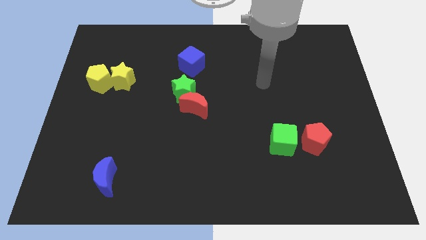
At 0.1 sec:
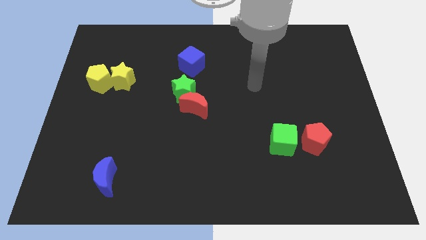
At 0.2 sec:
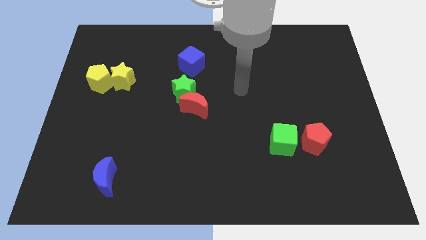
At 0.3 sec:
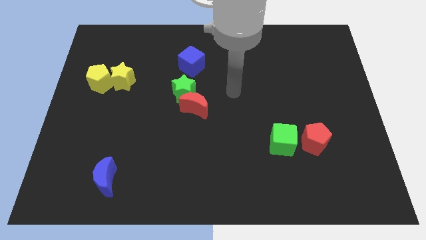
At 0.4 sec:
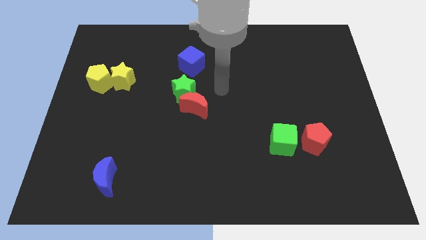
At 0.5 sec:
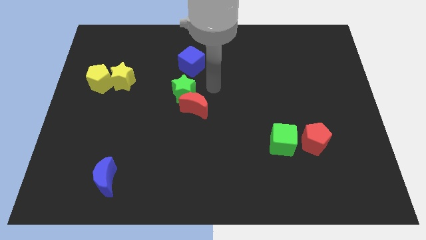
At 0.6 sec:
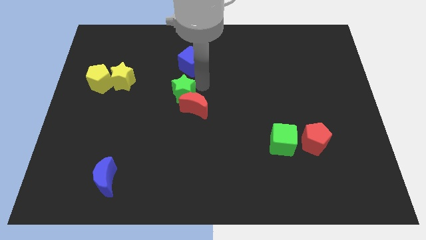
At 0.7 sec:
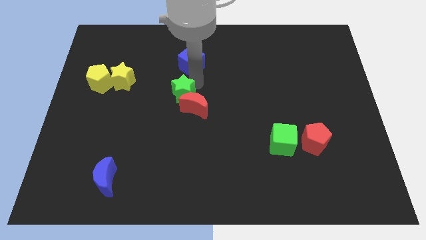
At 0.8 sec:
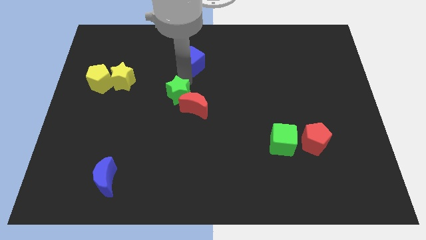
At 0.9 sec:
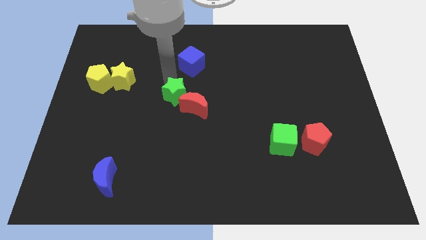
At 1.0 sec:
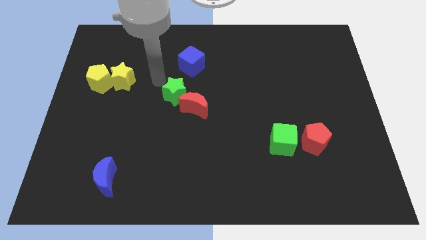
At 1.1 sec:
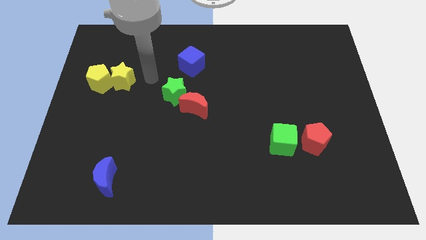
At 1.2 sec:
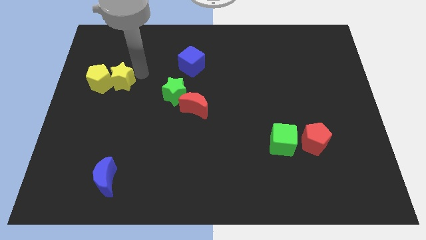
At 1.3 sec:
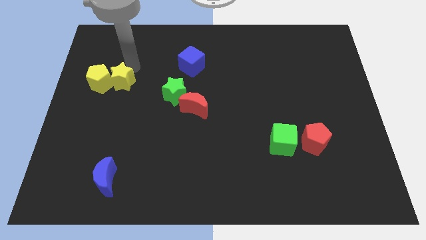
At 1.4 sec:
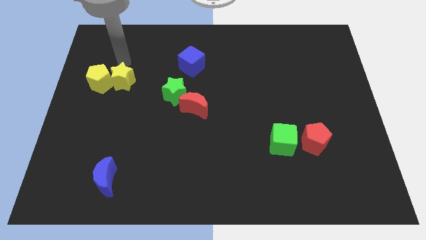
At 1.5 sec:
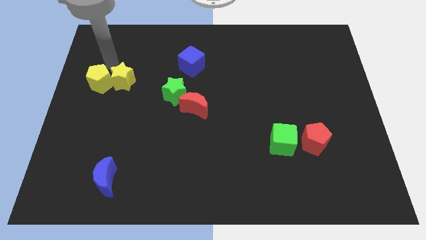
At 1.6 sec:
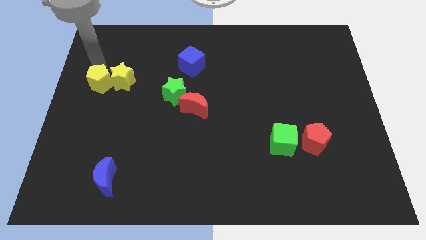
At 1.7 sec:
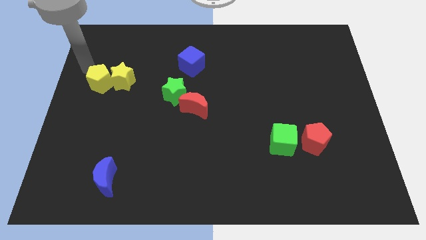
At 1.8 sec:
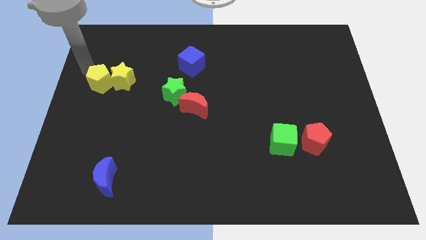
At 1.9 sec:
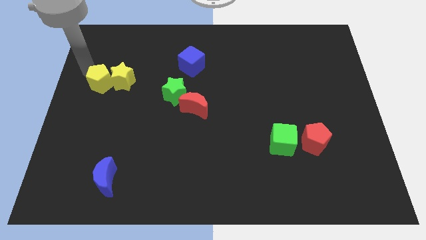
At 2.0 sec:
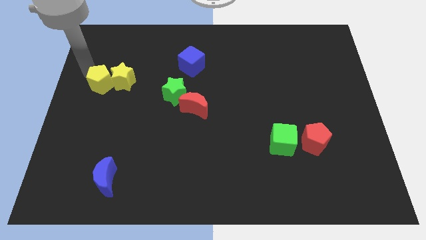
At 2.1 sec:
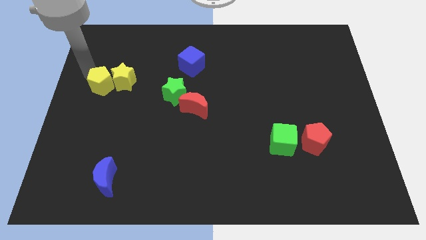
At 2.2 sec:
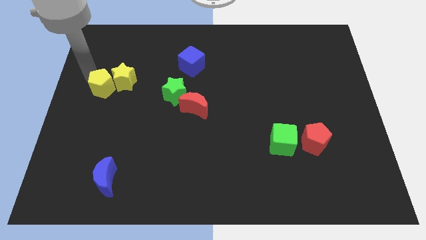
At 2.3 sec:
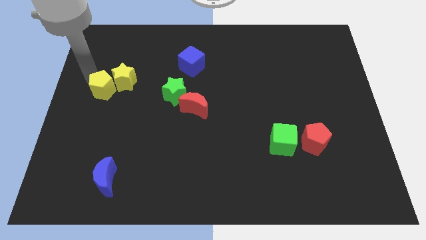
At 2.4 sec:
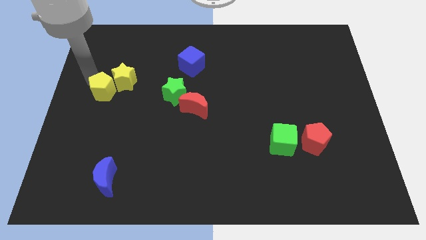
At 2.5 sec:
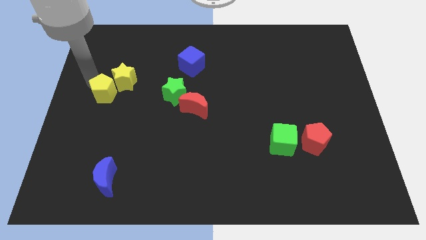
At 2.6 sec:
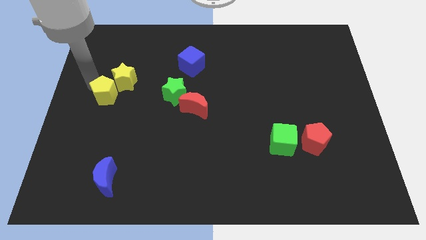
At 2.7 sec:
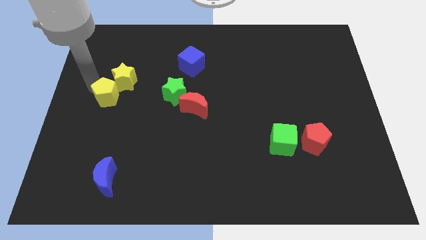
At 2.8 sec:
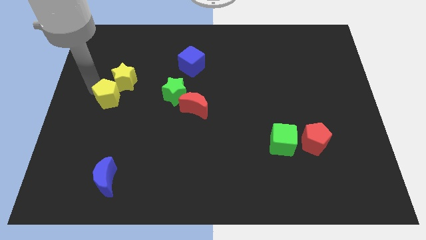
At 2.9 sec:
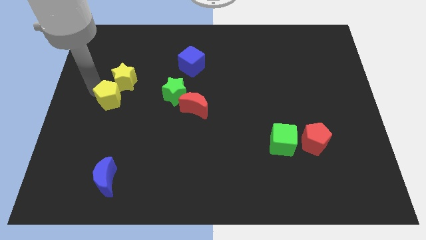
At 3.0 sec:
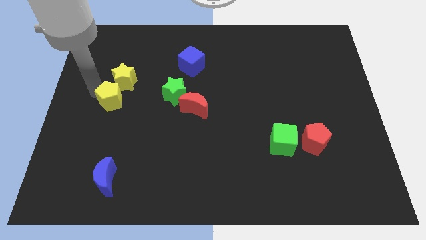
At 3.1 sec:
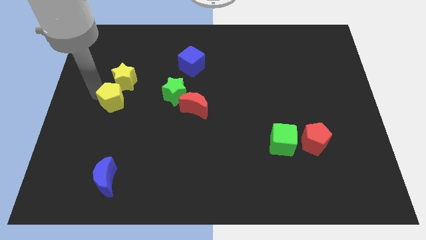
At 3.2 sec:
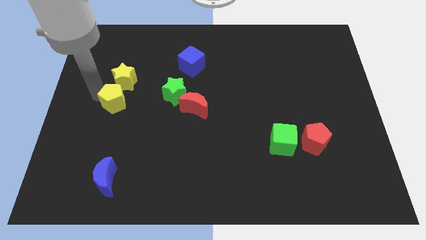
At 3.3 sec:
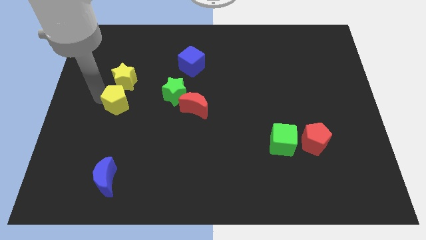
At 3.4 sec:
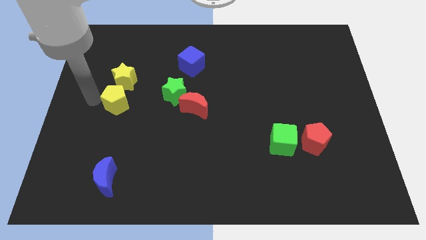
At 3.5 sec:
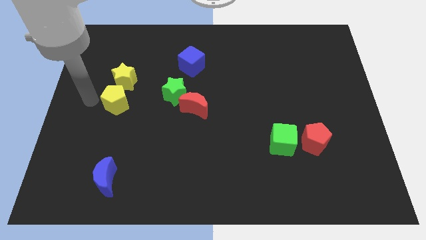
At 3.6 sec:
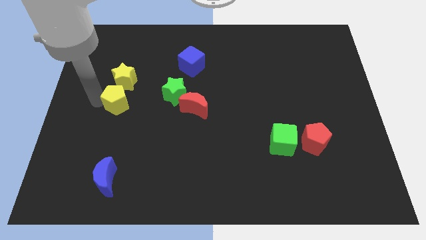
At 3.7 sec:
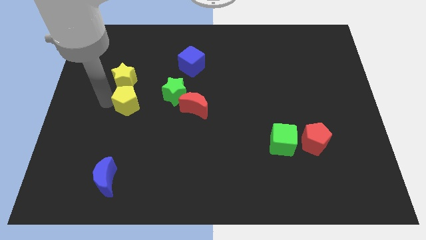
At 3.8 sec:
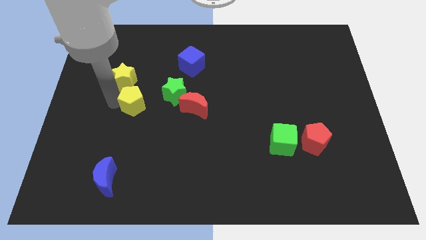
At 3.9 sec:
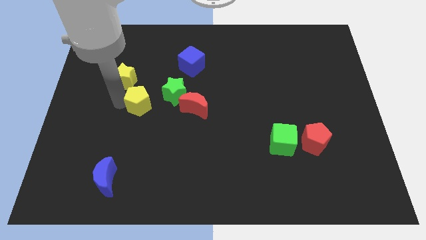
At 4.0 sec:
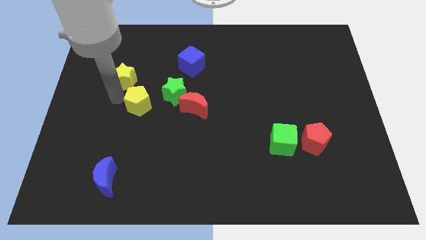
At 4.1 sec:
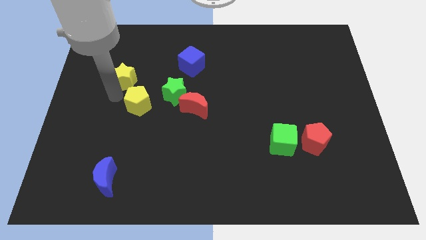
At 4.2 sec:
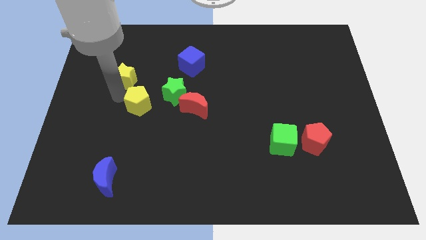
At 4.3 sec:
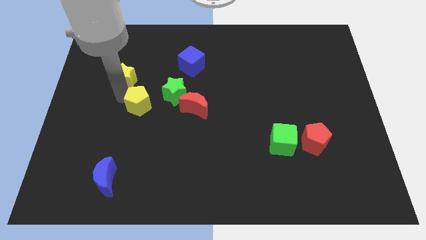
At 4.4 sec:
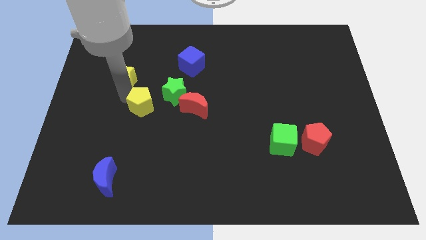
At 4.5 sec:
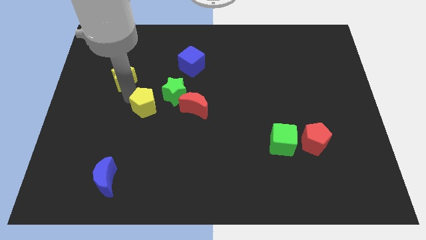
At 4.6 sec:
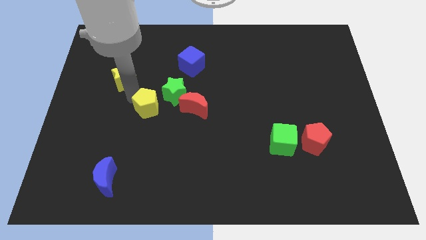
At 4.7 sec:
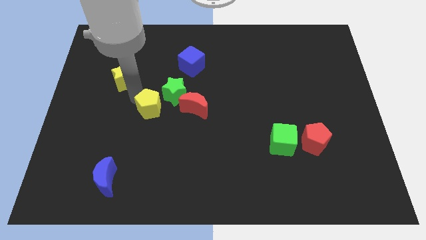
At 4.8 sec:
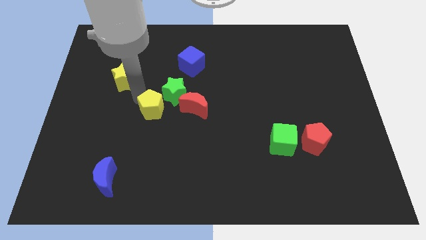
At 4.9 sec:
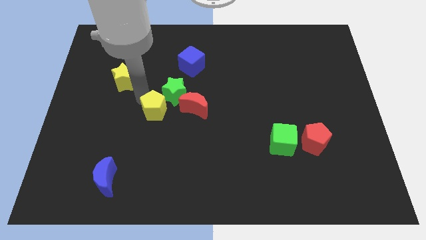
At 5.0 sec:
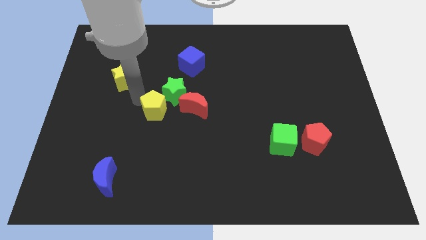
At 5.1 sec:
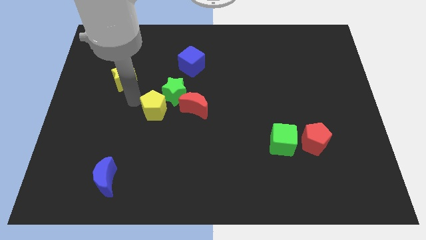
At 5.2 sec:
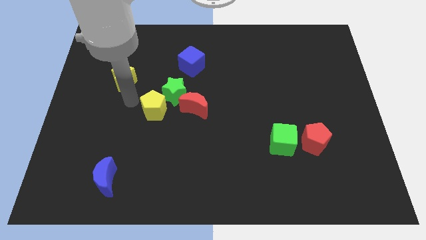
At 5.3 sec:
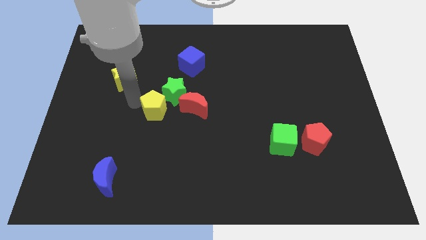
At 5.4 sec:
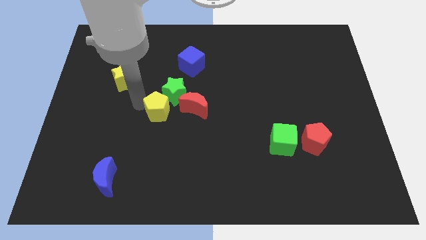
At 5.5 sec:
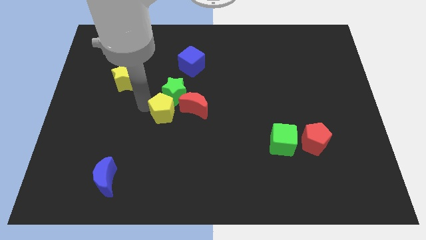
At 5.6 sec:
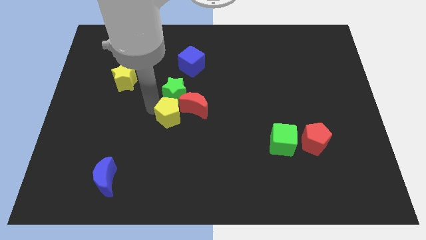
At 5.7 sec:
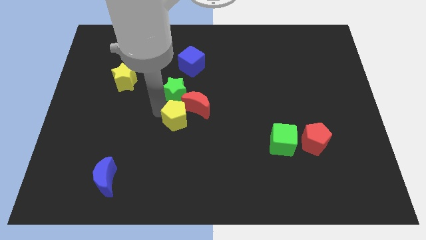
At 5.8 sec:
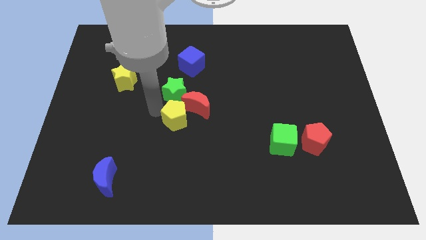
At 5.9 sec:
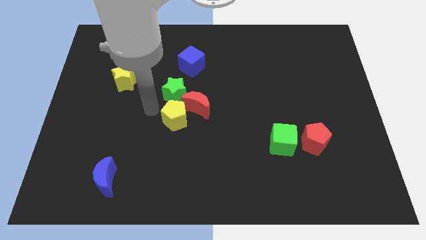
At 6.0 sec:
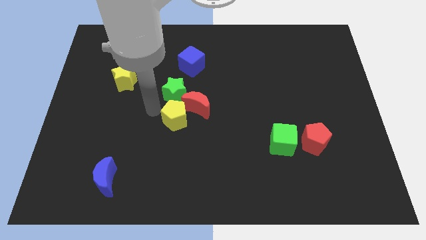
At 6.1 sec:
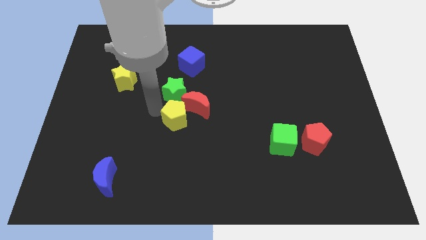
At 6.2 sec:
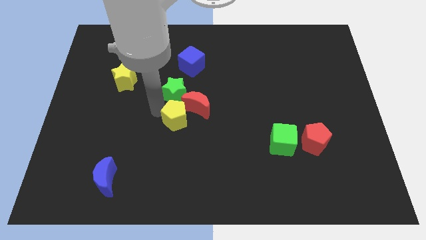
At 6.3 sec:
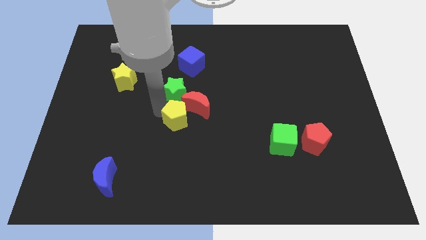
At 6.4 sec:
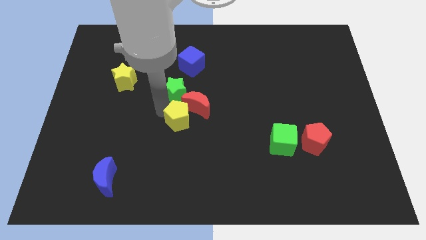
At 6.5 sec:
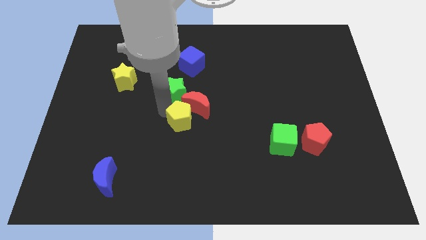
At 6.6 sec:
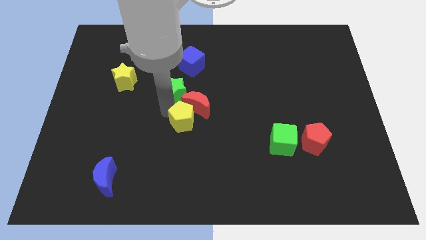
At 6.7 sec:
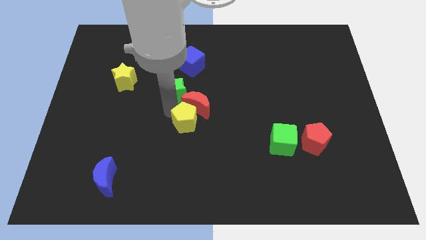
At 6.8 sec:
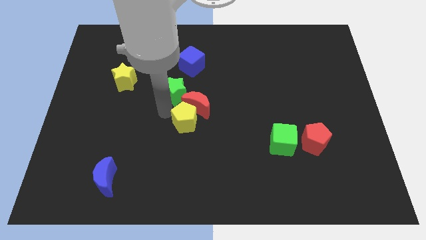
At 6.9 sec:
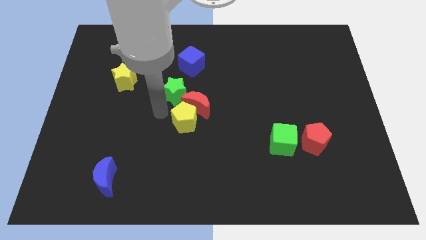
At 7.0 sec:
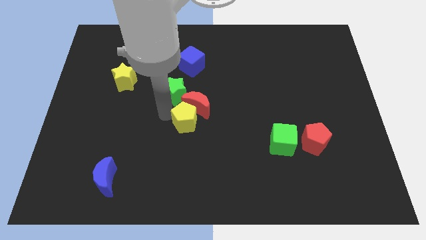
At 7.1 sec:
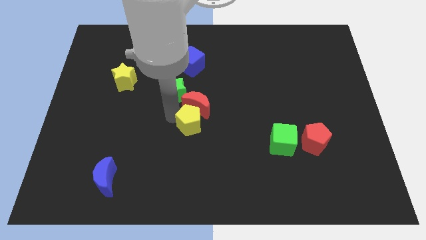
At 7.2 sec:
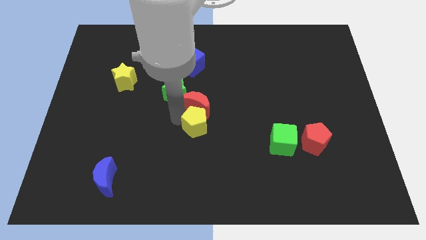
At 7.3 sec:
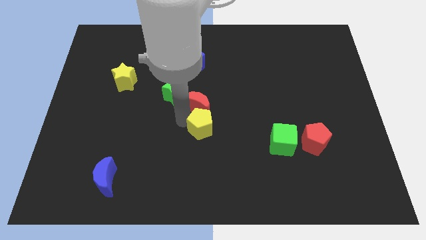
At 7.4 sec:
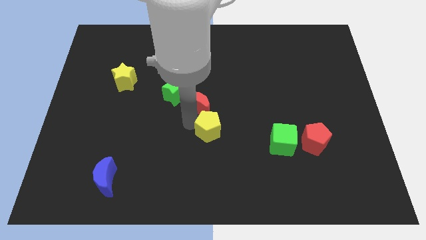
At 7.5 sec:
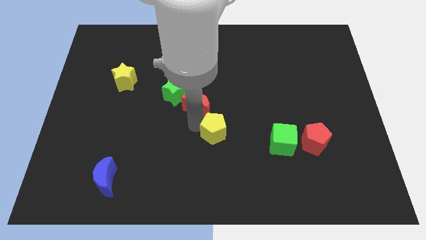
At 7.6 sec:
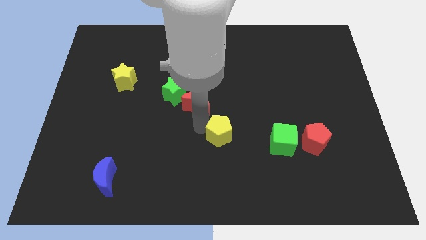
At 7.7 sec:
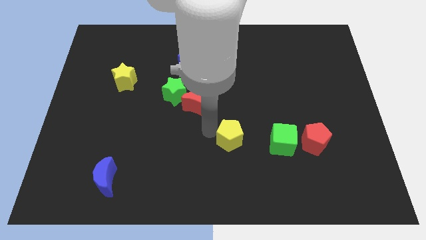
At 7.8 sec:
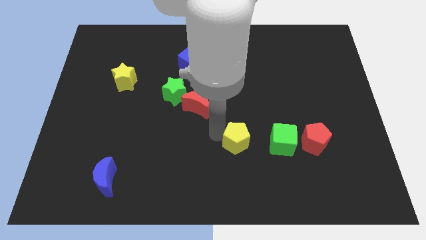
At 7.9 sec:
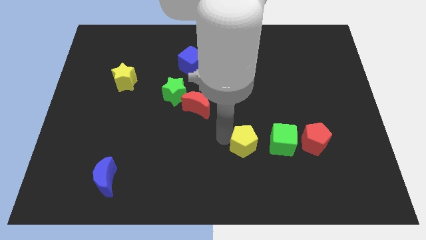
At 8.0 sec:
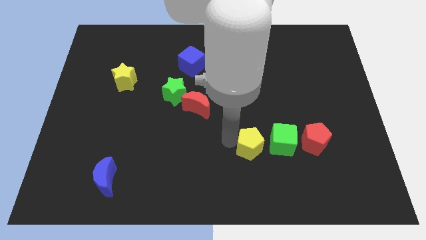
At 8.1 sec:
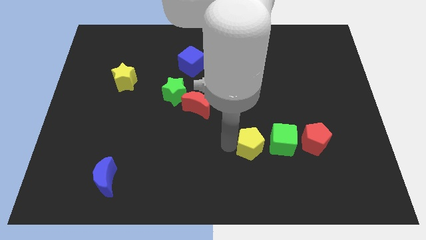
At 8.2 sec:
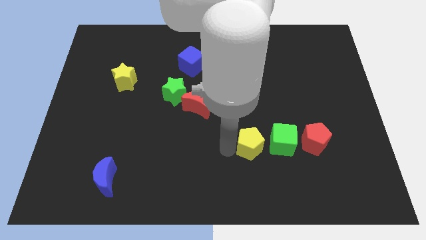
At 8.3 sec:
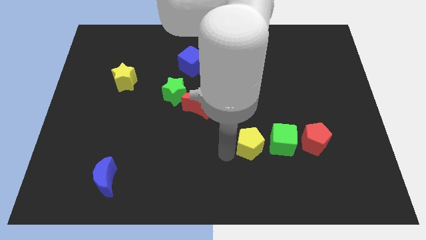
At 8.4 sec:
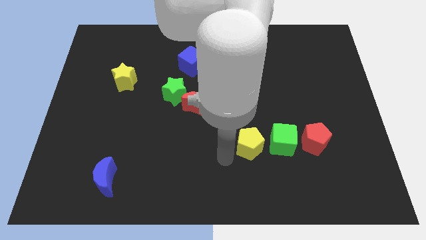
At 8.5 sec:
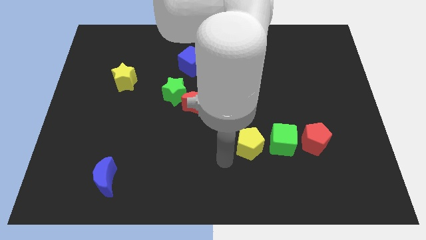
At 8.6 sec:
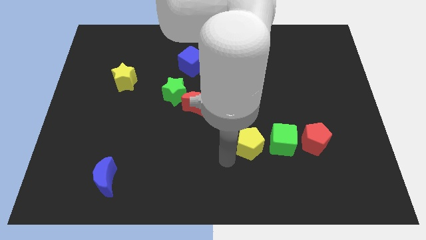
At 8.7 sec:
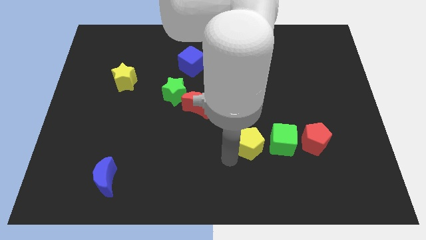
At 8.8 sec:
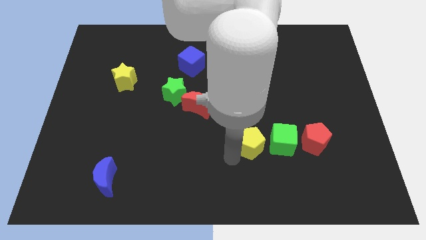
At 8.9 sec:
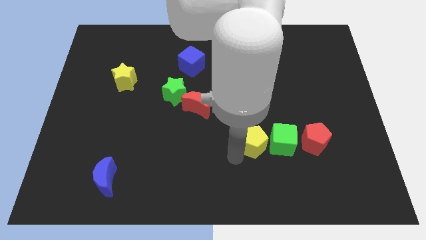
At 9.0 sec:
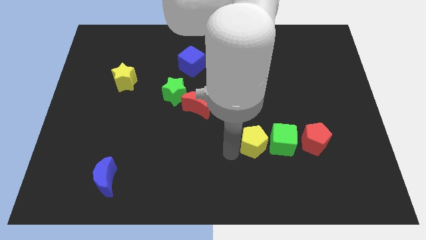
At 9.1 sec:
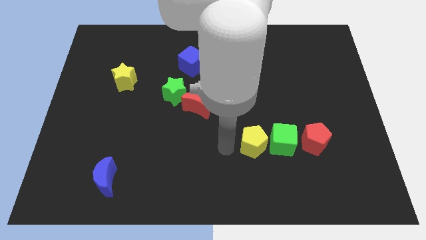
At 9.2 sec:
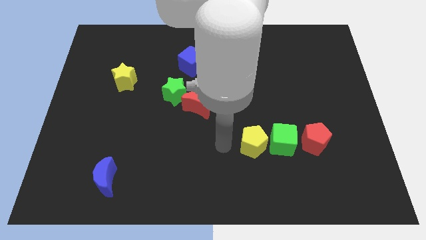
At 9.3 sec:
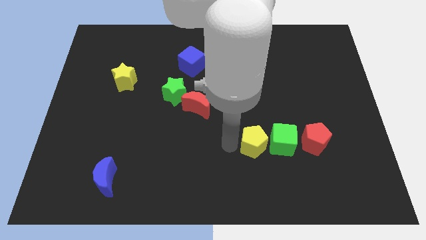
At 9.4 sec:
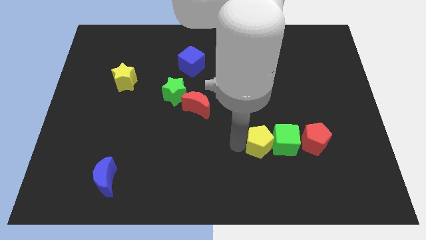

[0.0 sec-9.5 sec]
move the yellow pentagon towards the green cube
